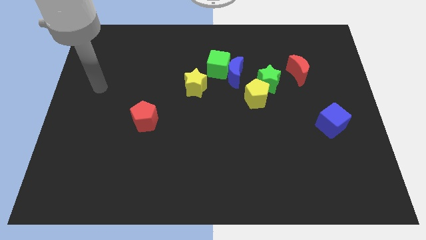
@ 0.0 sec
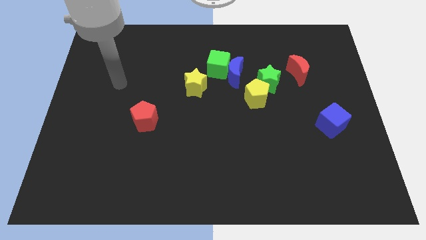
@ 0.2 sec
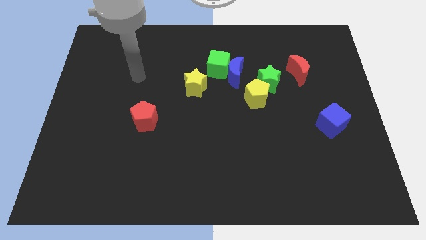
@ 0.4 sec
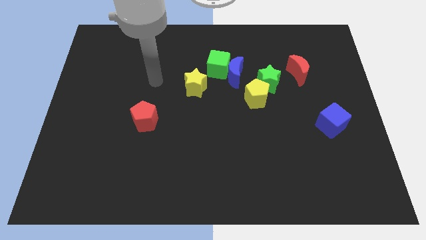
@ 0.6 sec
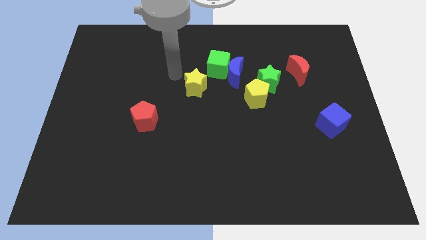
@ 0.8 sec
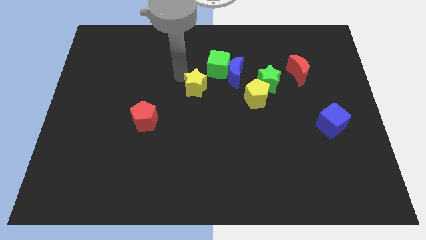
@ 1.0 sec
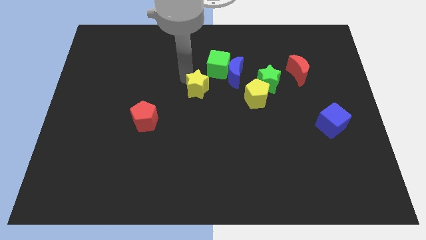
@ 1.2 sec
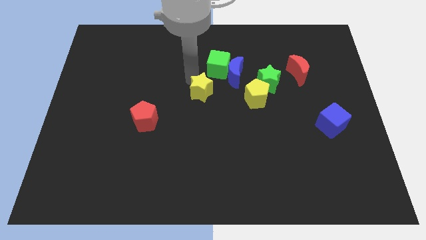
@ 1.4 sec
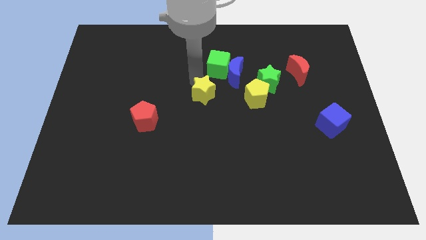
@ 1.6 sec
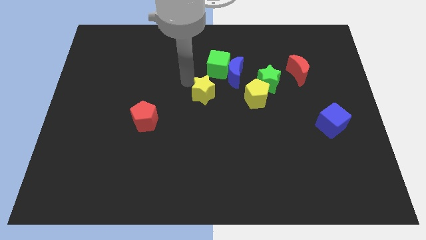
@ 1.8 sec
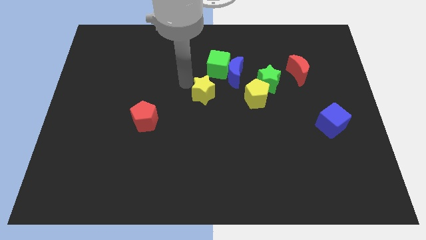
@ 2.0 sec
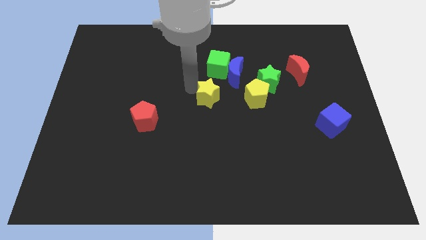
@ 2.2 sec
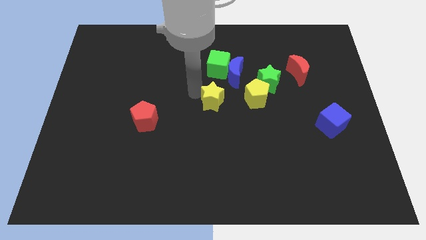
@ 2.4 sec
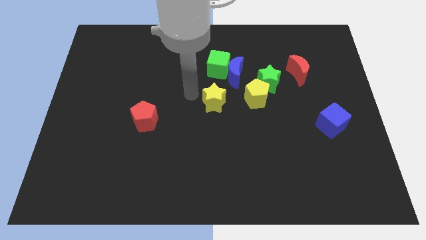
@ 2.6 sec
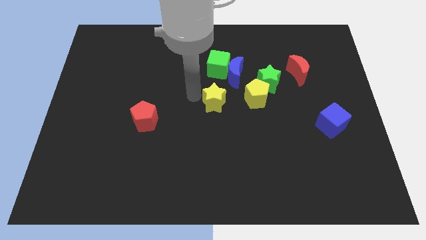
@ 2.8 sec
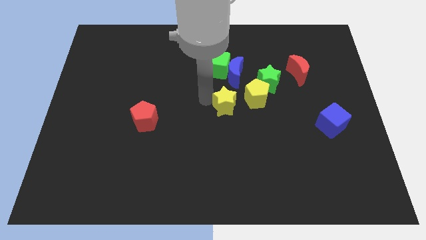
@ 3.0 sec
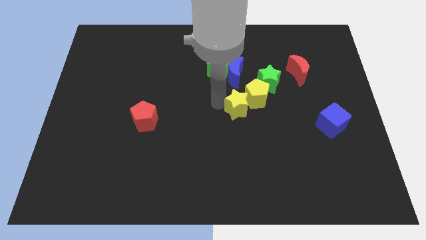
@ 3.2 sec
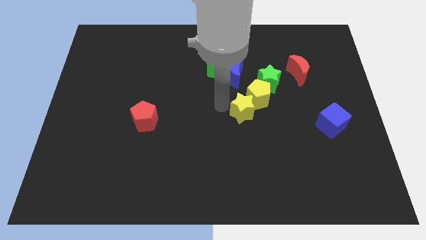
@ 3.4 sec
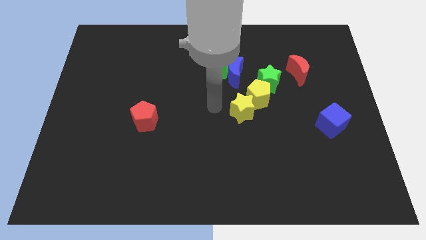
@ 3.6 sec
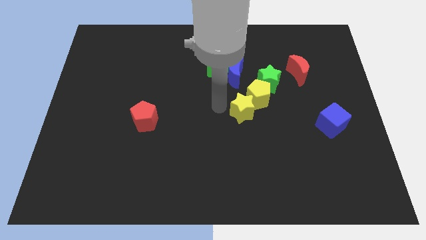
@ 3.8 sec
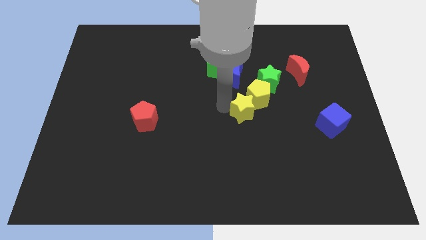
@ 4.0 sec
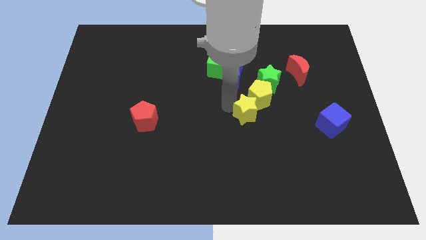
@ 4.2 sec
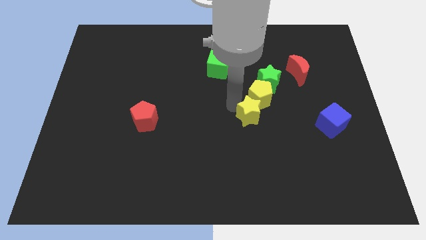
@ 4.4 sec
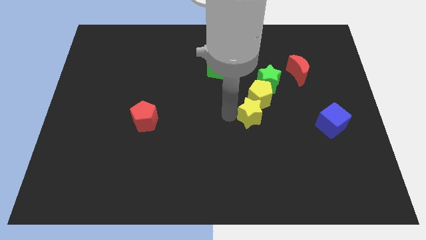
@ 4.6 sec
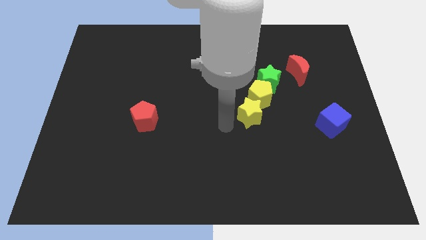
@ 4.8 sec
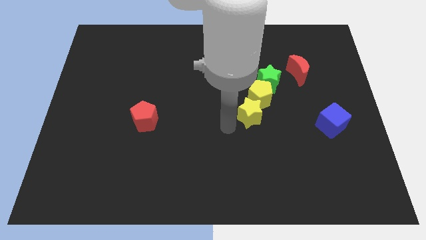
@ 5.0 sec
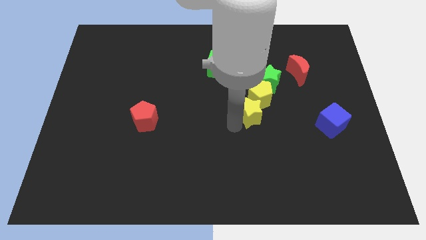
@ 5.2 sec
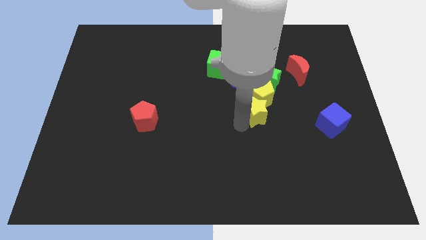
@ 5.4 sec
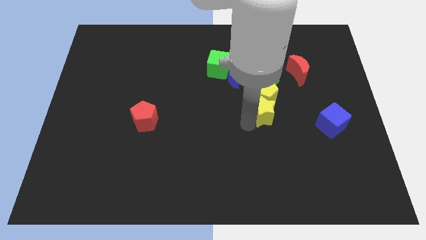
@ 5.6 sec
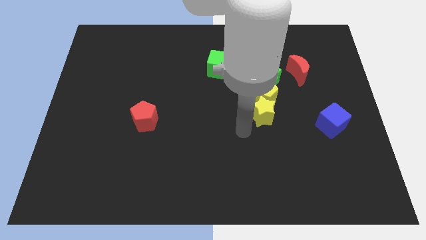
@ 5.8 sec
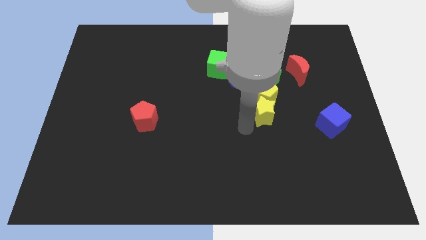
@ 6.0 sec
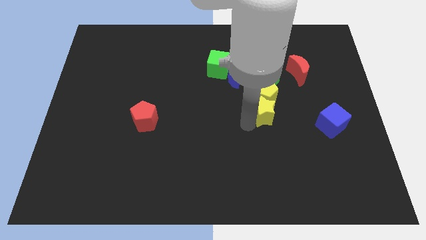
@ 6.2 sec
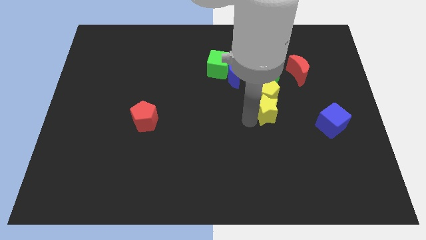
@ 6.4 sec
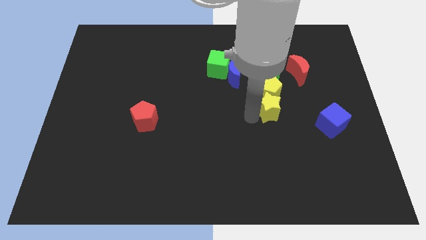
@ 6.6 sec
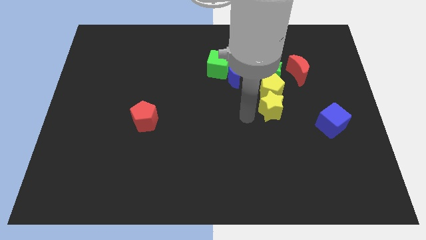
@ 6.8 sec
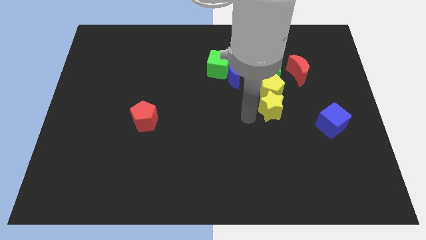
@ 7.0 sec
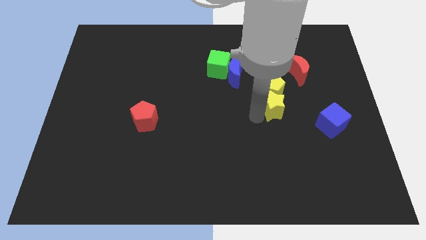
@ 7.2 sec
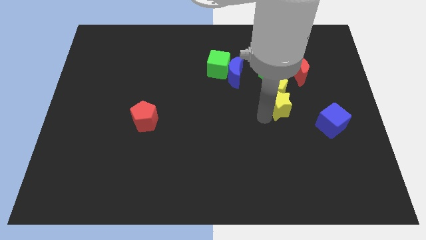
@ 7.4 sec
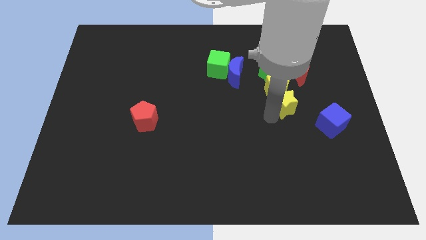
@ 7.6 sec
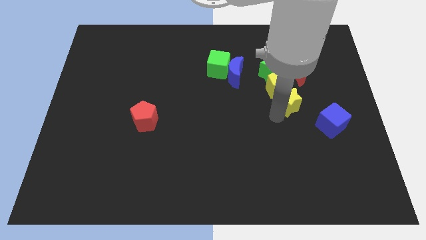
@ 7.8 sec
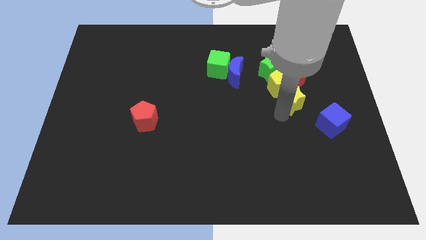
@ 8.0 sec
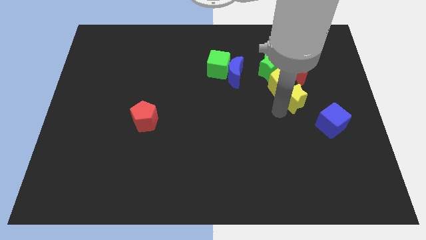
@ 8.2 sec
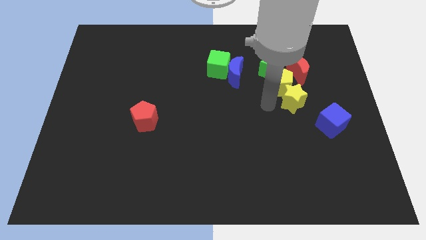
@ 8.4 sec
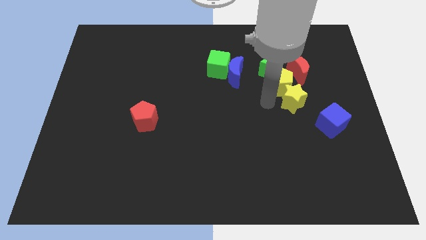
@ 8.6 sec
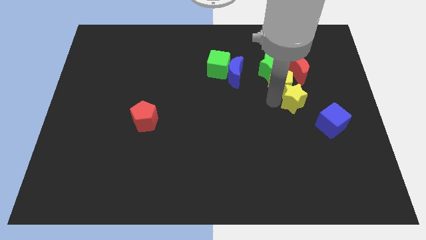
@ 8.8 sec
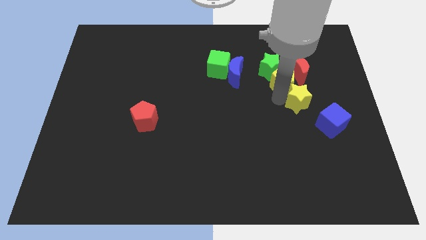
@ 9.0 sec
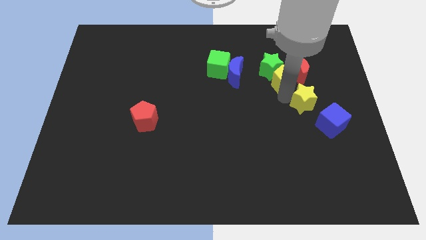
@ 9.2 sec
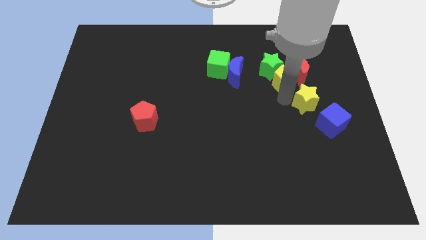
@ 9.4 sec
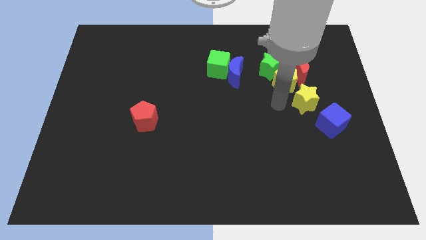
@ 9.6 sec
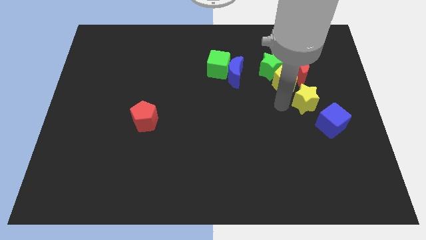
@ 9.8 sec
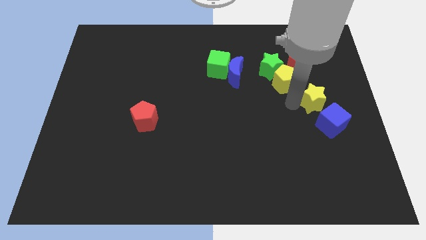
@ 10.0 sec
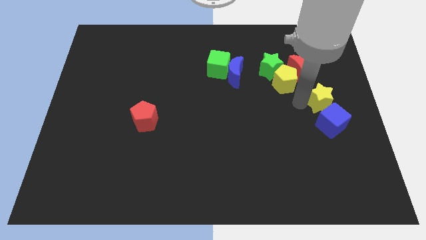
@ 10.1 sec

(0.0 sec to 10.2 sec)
slide the yellow star to the right side

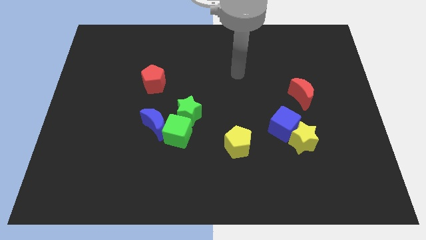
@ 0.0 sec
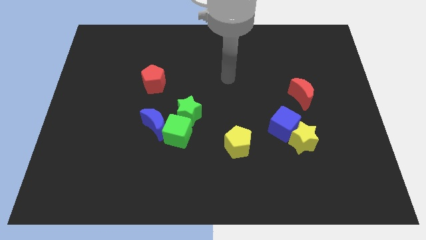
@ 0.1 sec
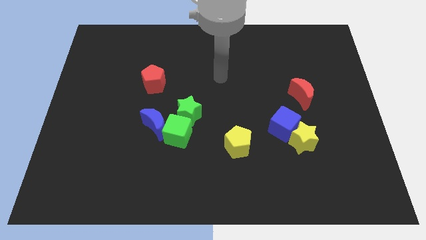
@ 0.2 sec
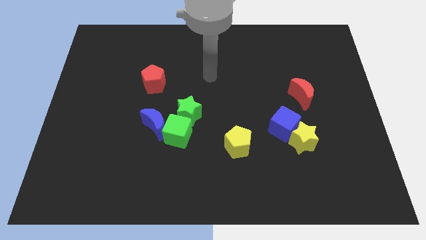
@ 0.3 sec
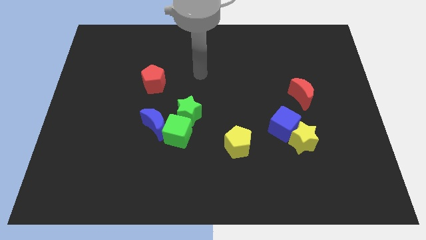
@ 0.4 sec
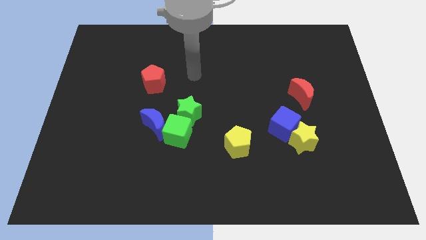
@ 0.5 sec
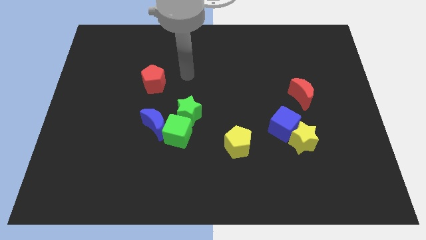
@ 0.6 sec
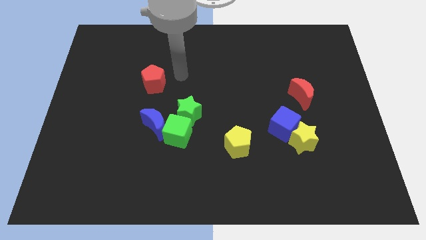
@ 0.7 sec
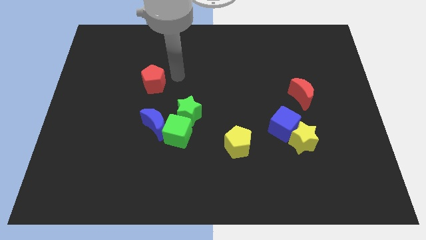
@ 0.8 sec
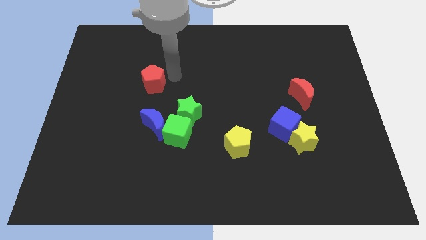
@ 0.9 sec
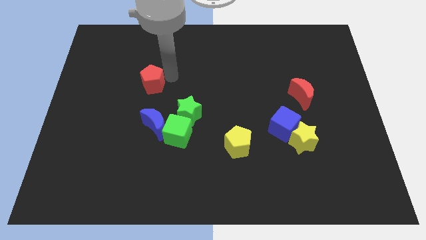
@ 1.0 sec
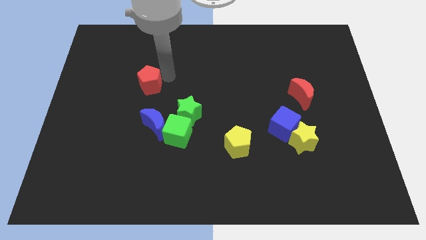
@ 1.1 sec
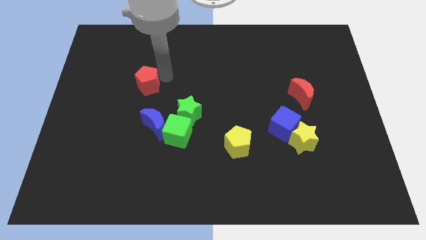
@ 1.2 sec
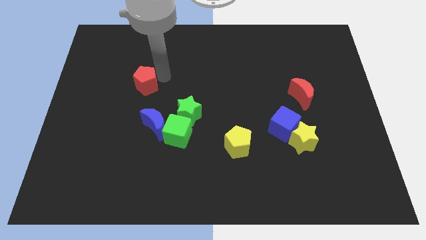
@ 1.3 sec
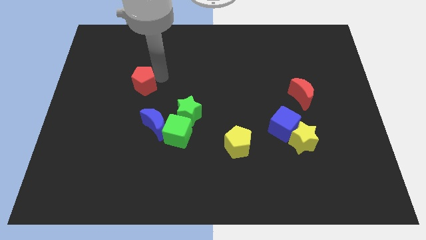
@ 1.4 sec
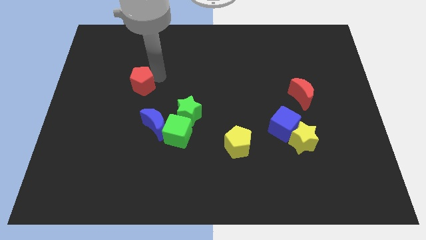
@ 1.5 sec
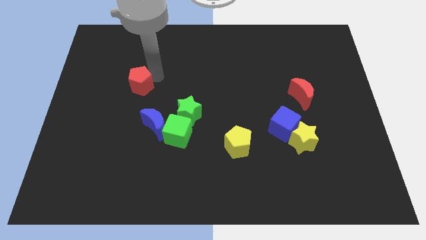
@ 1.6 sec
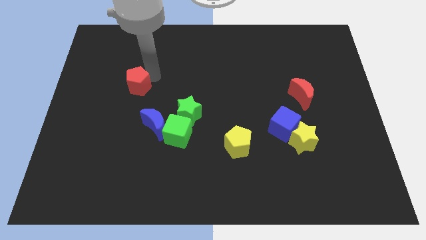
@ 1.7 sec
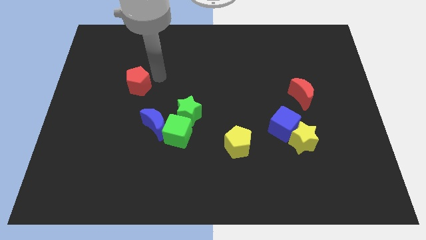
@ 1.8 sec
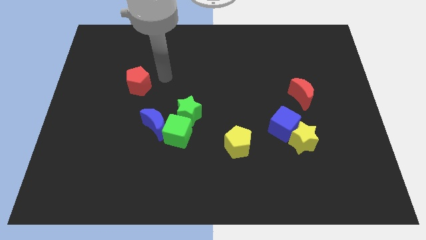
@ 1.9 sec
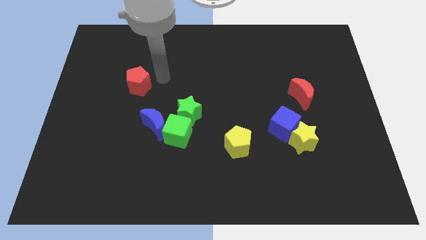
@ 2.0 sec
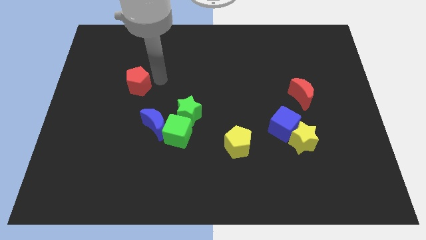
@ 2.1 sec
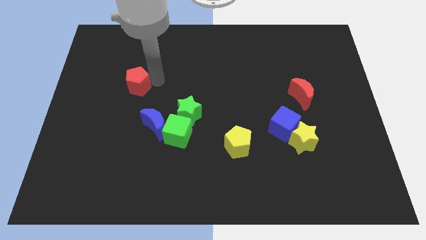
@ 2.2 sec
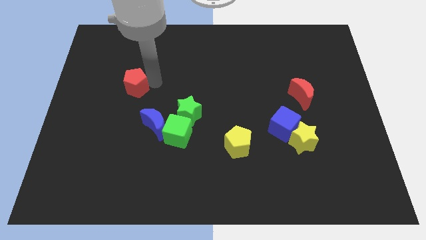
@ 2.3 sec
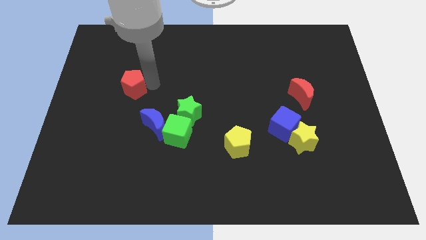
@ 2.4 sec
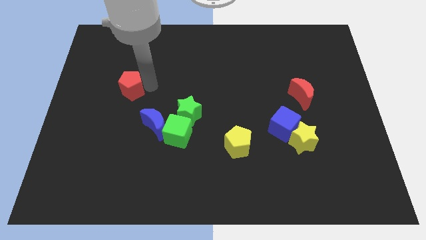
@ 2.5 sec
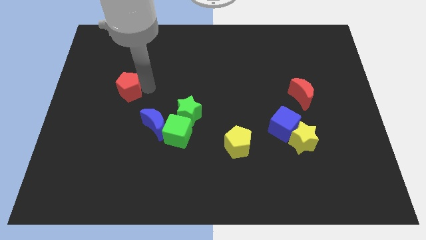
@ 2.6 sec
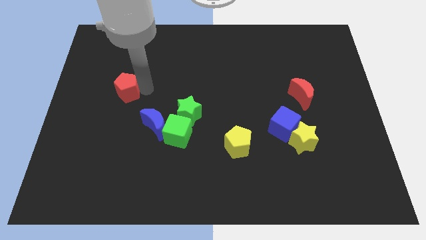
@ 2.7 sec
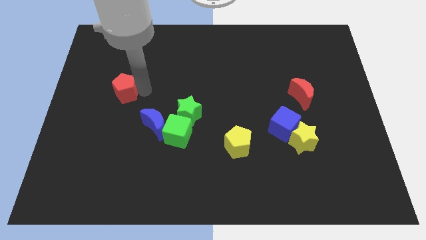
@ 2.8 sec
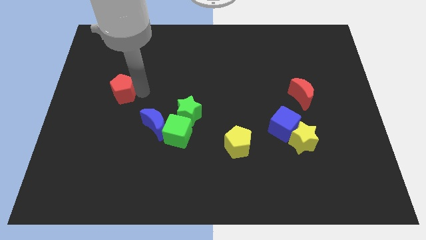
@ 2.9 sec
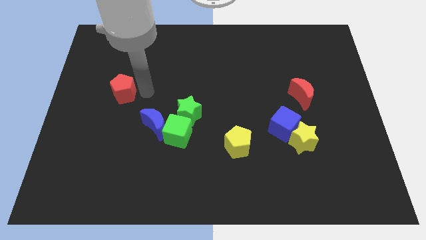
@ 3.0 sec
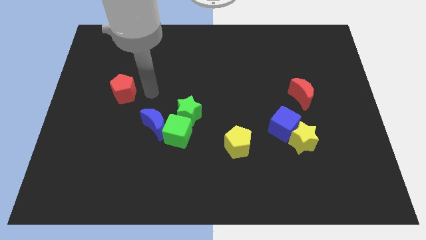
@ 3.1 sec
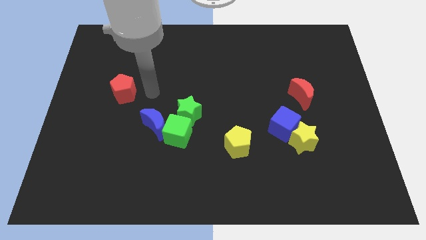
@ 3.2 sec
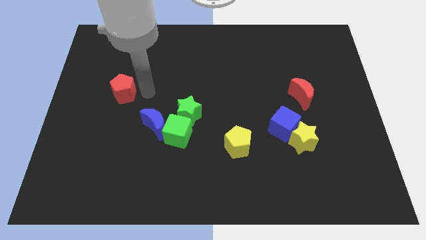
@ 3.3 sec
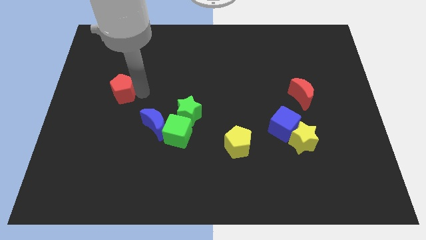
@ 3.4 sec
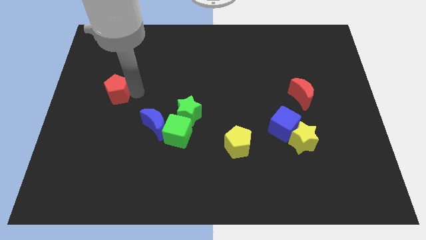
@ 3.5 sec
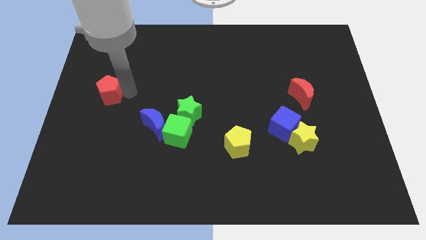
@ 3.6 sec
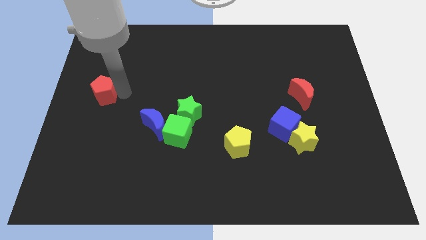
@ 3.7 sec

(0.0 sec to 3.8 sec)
move the red pentagon to the left side of the board
